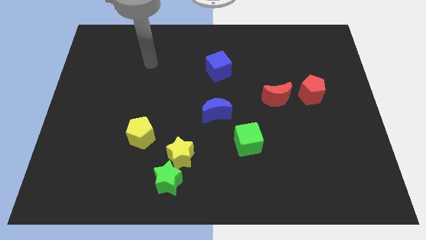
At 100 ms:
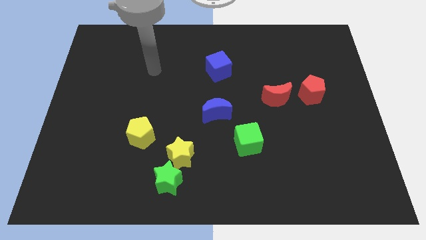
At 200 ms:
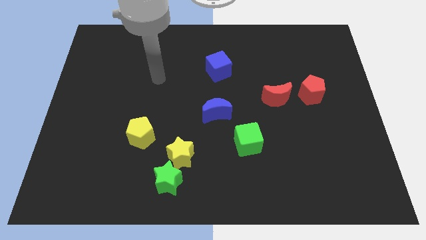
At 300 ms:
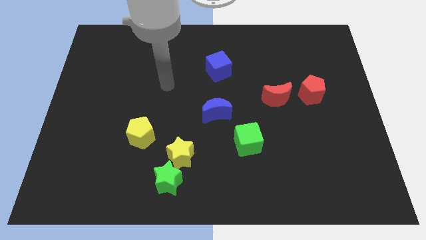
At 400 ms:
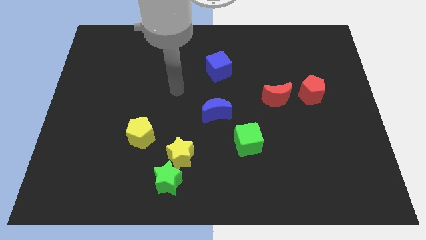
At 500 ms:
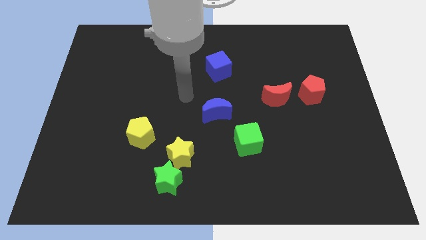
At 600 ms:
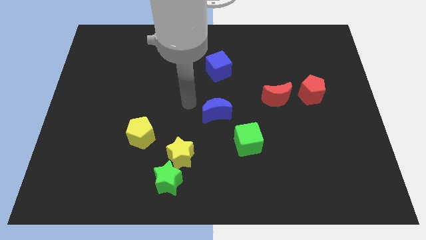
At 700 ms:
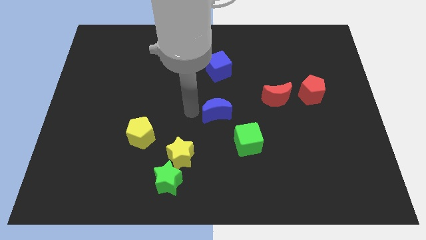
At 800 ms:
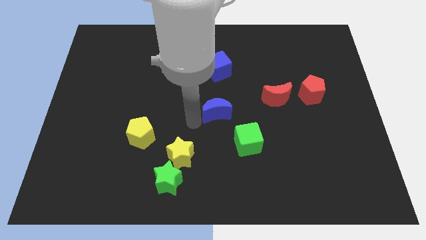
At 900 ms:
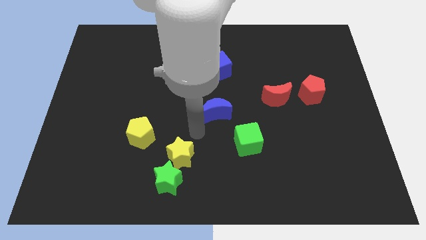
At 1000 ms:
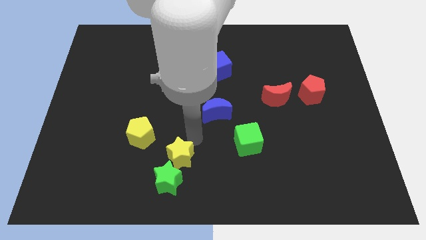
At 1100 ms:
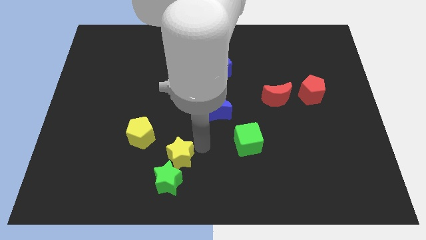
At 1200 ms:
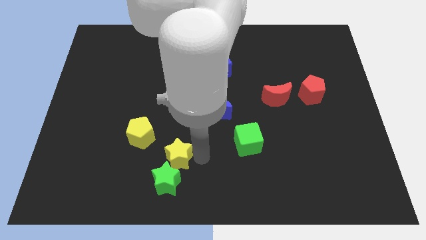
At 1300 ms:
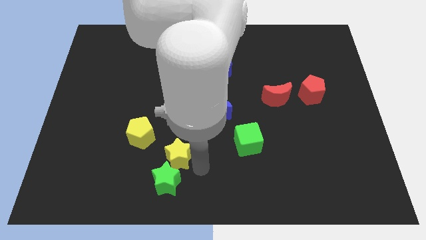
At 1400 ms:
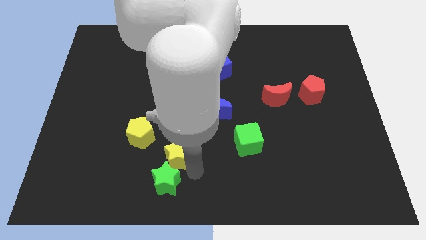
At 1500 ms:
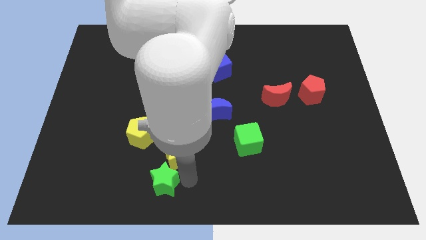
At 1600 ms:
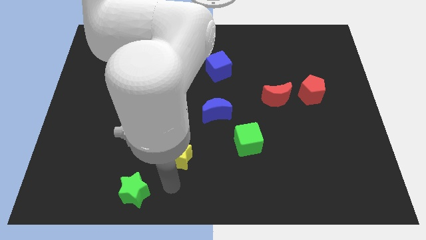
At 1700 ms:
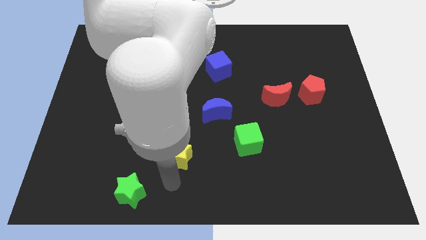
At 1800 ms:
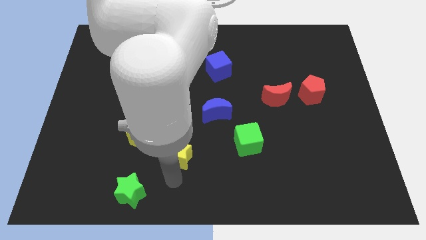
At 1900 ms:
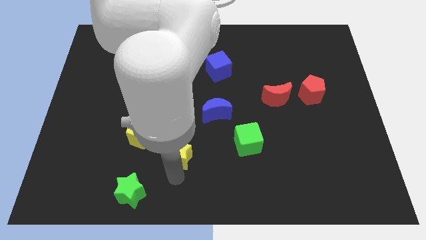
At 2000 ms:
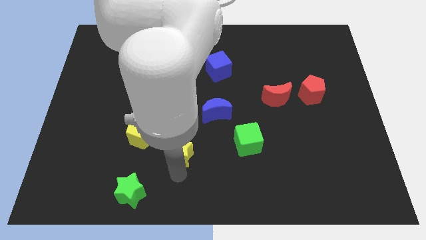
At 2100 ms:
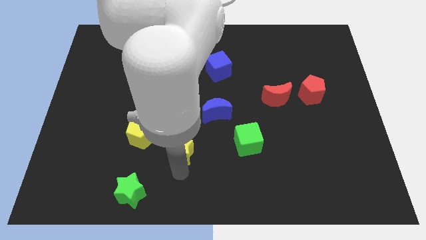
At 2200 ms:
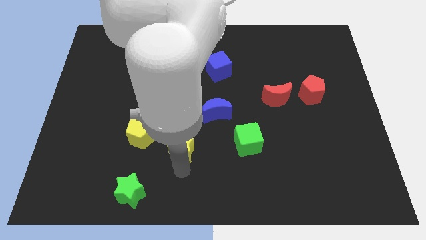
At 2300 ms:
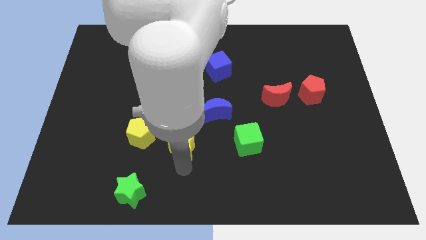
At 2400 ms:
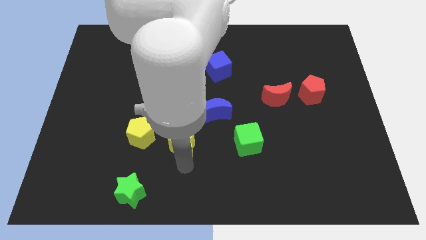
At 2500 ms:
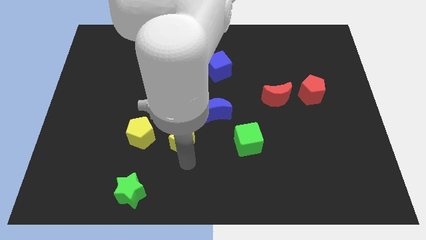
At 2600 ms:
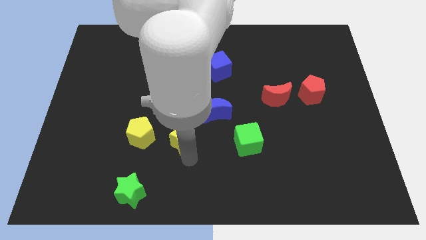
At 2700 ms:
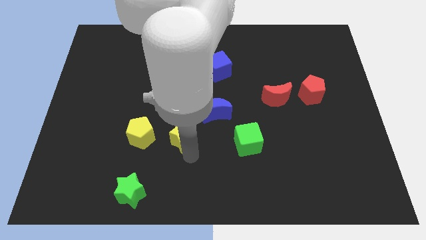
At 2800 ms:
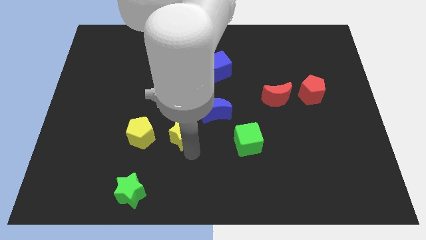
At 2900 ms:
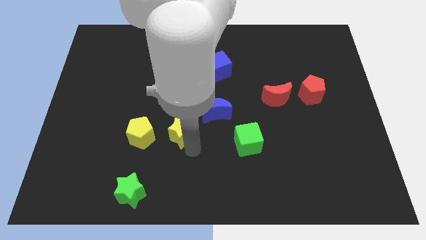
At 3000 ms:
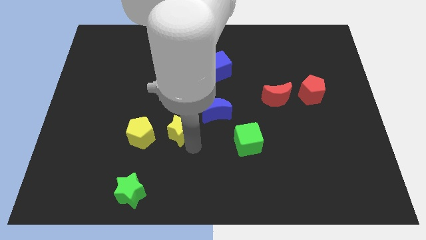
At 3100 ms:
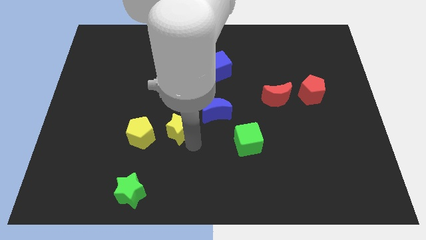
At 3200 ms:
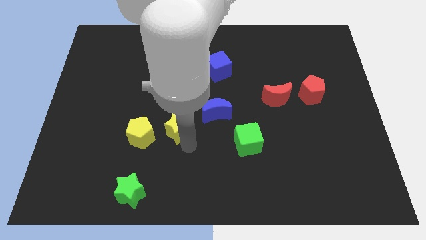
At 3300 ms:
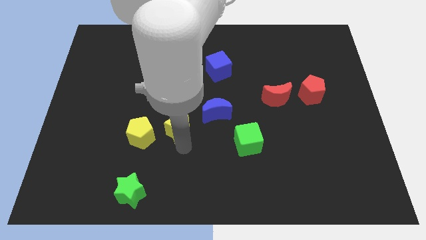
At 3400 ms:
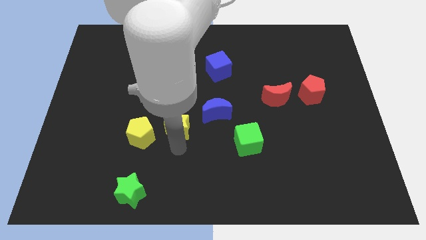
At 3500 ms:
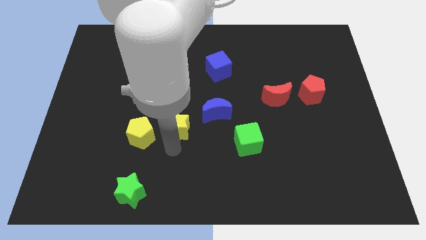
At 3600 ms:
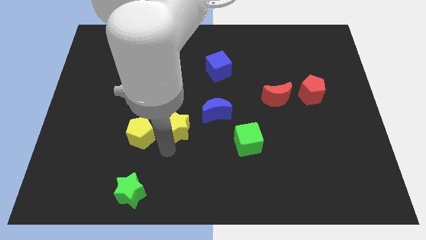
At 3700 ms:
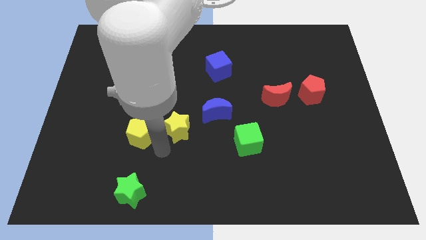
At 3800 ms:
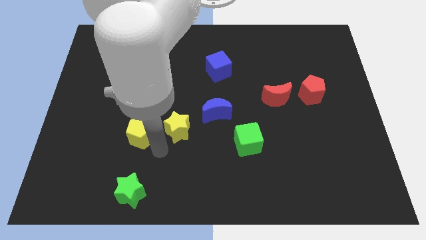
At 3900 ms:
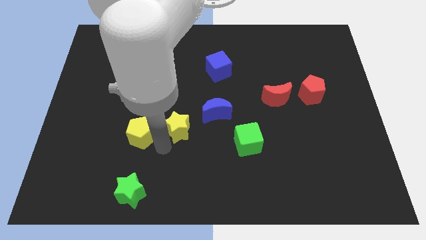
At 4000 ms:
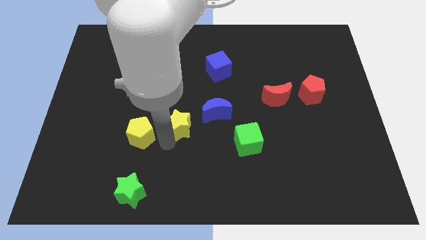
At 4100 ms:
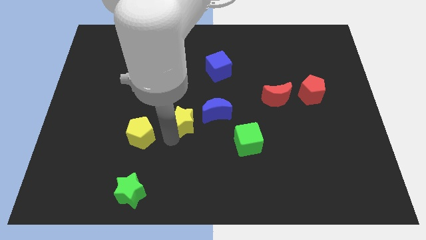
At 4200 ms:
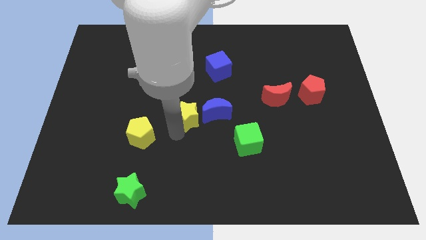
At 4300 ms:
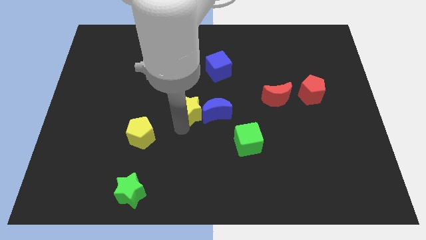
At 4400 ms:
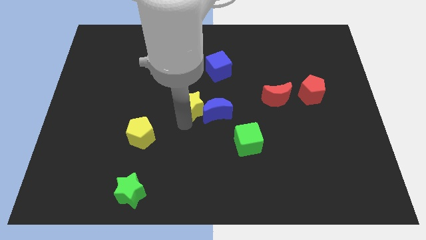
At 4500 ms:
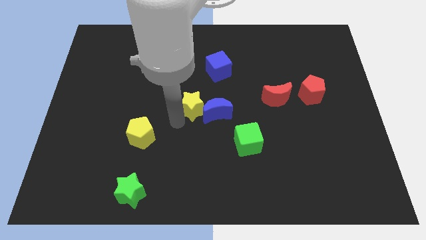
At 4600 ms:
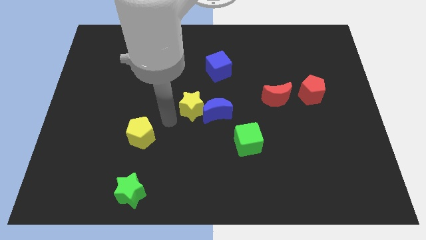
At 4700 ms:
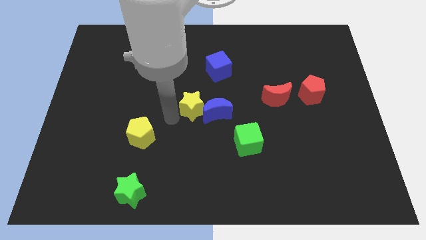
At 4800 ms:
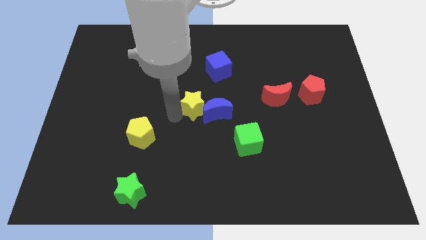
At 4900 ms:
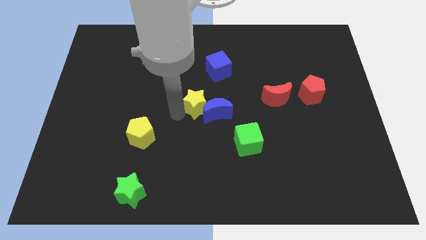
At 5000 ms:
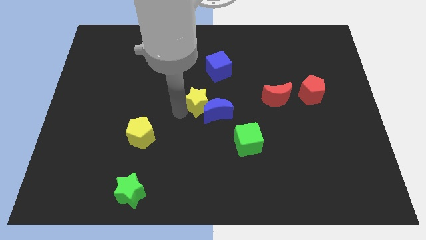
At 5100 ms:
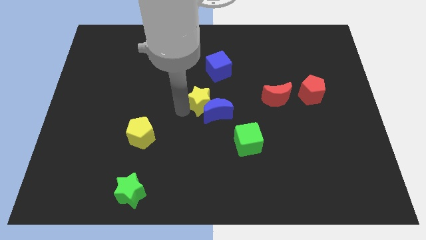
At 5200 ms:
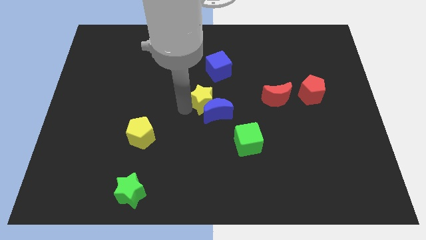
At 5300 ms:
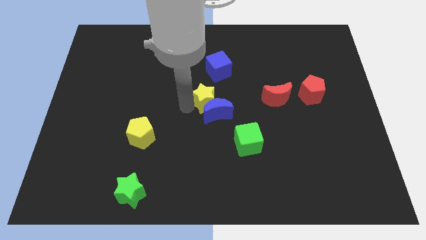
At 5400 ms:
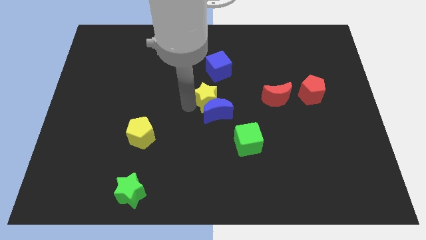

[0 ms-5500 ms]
push the yellow star to the top right of the blue moon

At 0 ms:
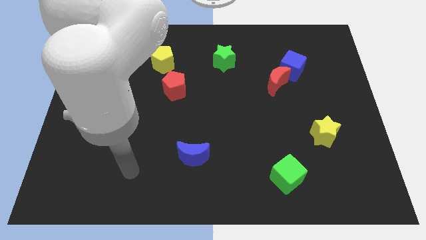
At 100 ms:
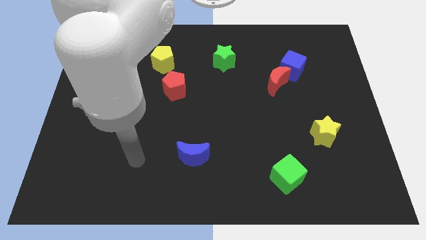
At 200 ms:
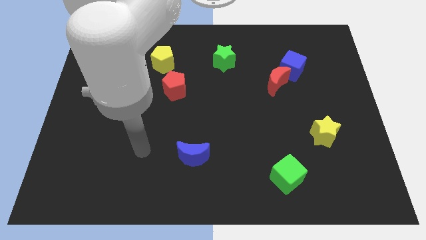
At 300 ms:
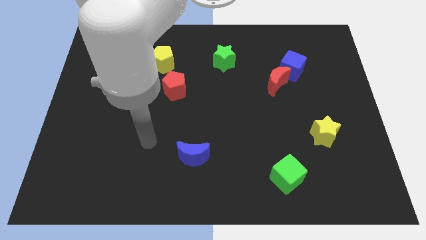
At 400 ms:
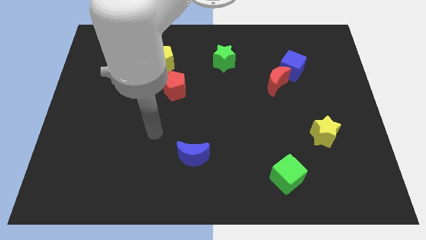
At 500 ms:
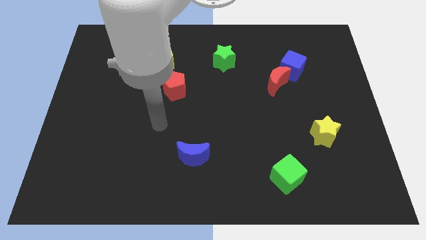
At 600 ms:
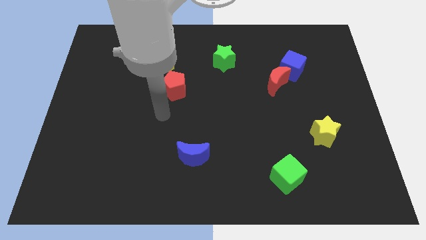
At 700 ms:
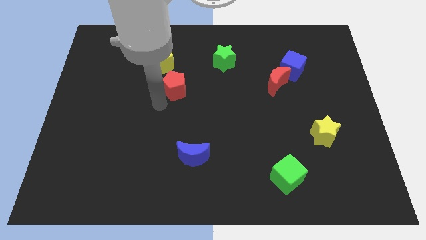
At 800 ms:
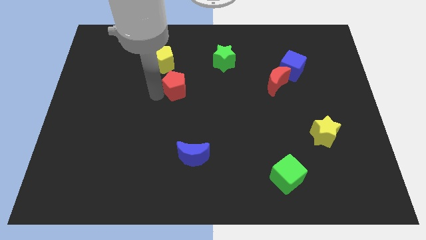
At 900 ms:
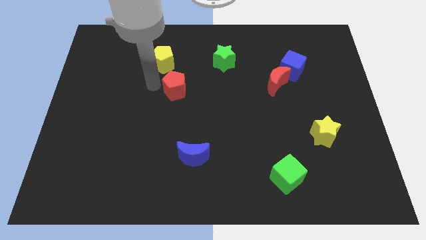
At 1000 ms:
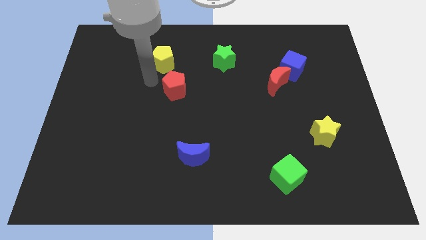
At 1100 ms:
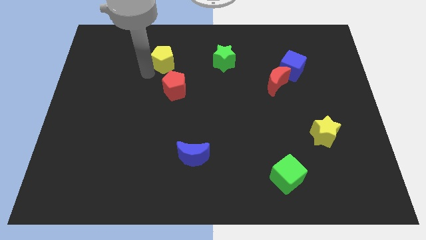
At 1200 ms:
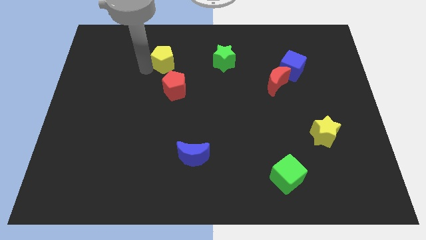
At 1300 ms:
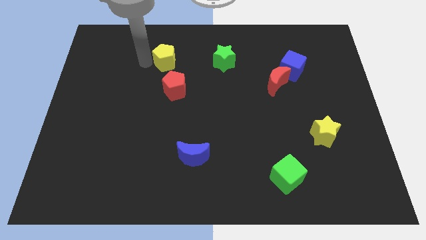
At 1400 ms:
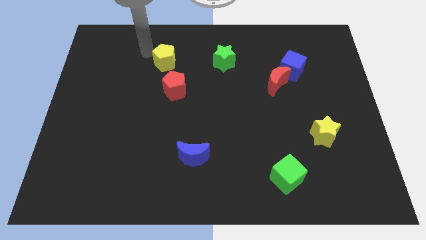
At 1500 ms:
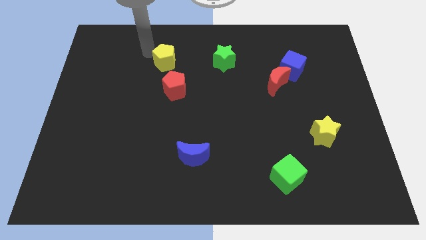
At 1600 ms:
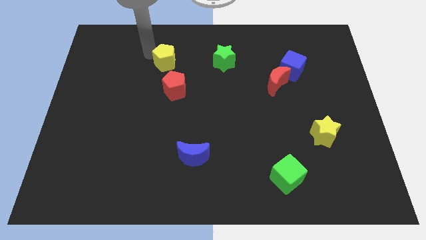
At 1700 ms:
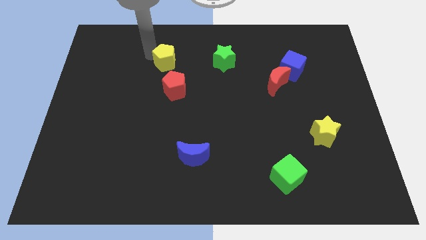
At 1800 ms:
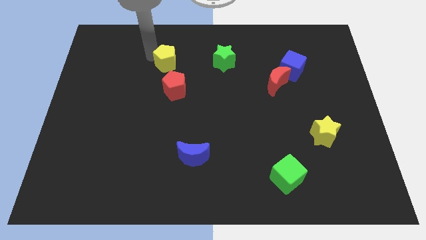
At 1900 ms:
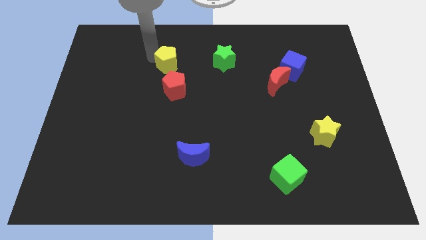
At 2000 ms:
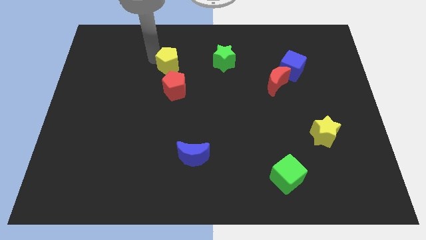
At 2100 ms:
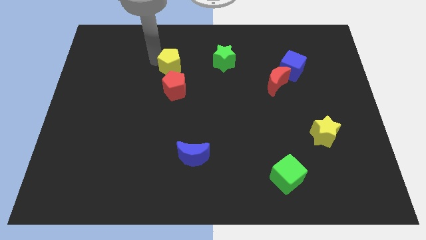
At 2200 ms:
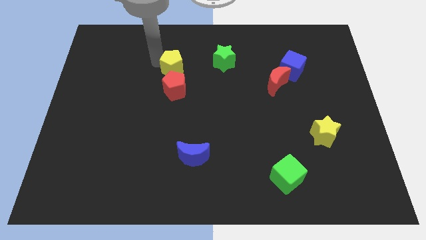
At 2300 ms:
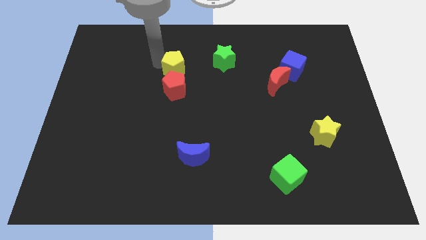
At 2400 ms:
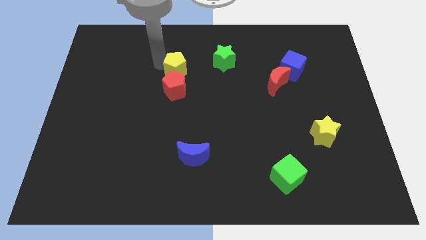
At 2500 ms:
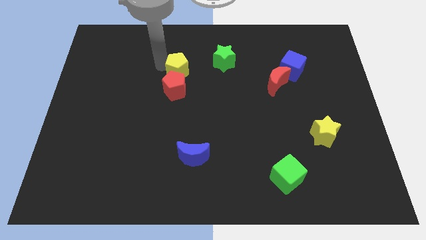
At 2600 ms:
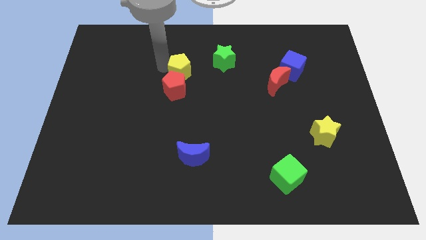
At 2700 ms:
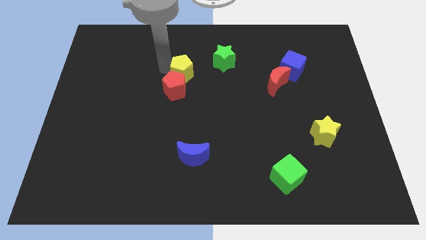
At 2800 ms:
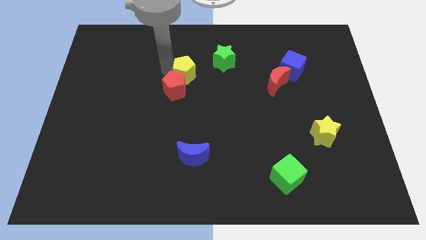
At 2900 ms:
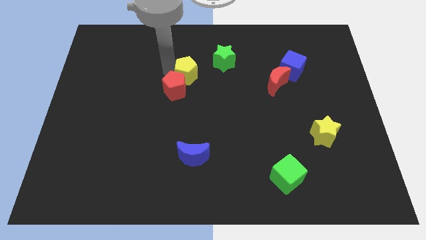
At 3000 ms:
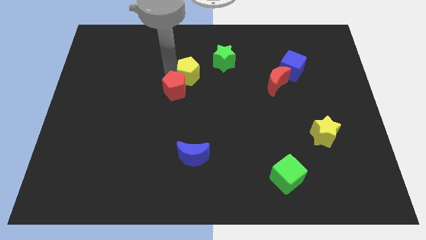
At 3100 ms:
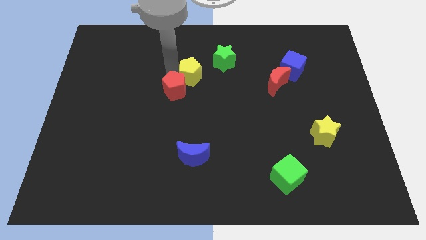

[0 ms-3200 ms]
put the yellow pentagon just right of the red pentagon

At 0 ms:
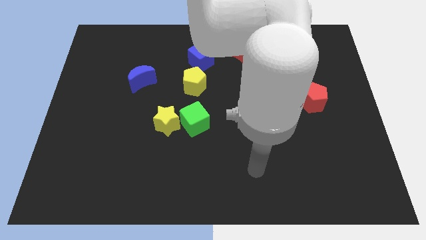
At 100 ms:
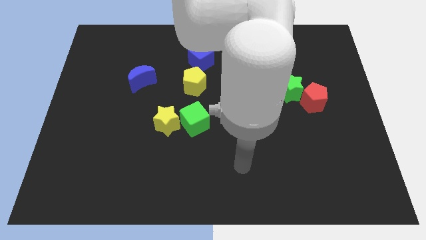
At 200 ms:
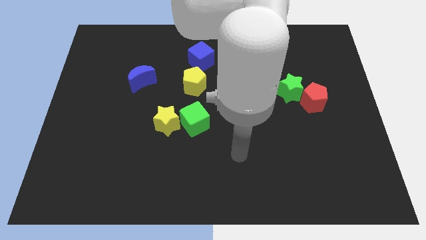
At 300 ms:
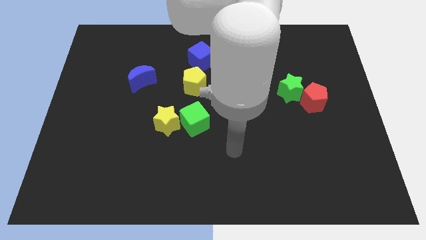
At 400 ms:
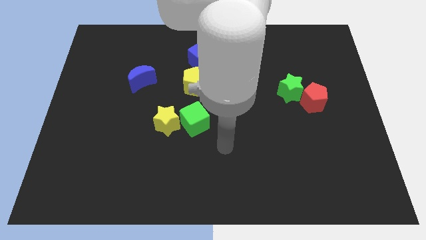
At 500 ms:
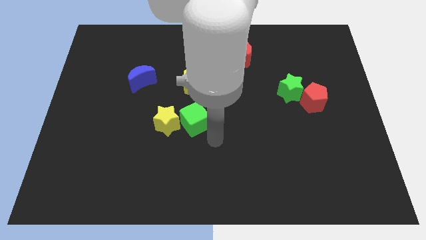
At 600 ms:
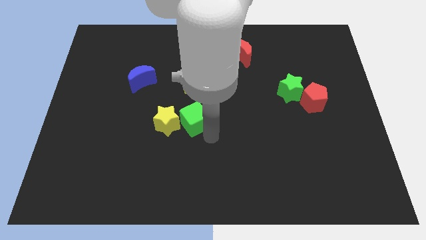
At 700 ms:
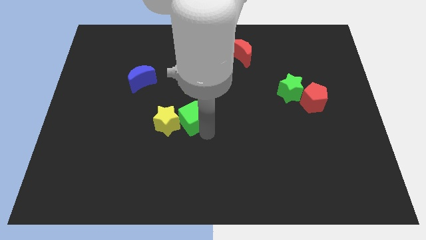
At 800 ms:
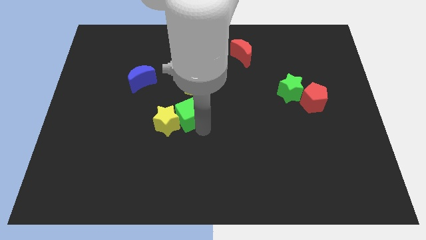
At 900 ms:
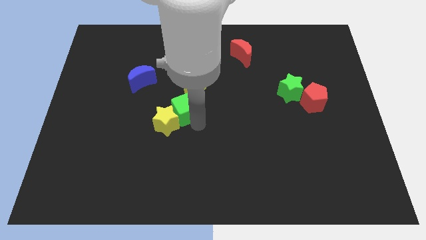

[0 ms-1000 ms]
move the green cube to the bottom left side of the yellow pentagon
